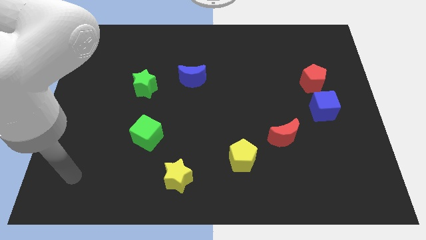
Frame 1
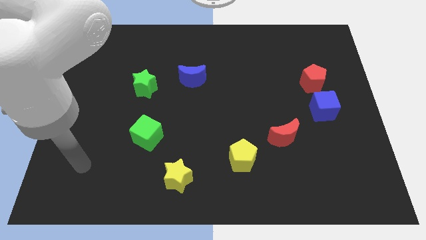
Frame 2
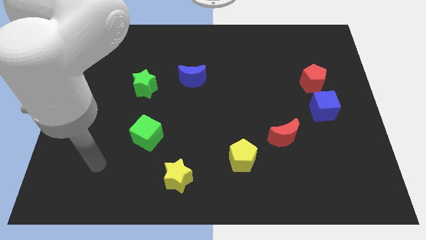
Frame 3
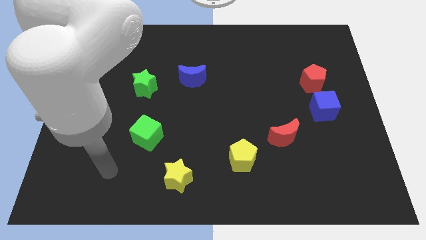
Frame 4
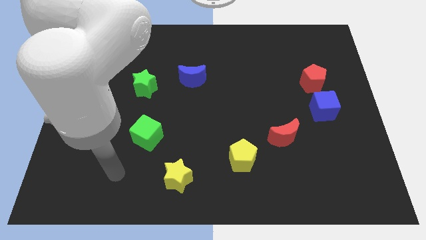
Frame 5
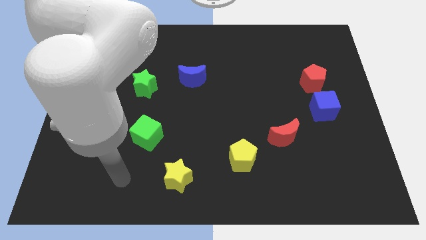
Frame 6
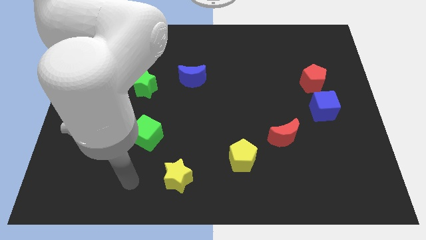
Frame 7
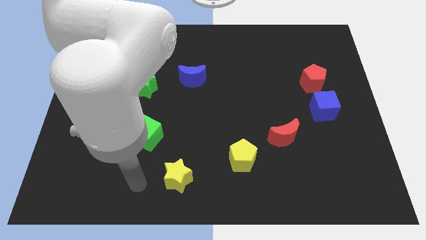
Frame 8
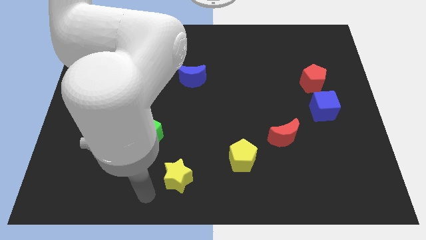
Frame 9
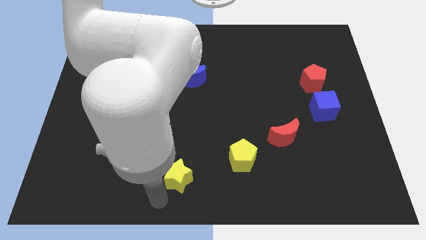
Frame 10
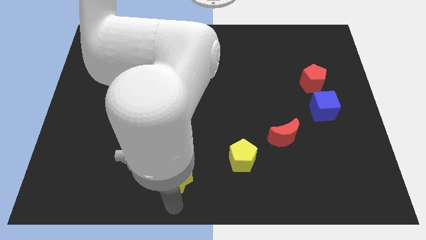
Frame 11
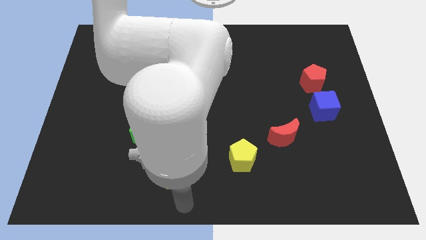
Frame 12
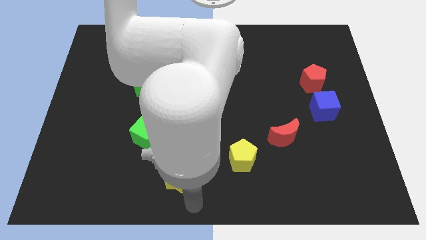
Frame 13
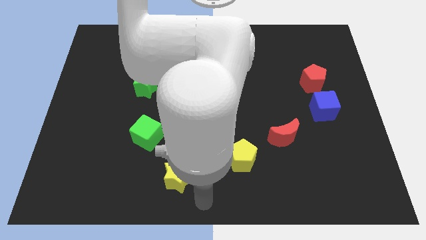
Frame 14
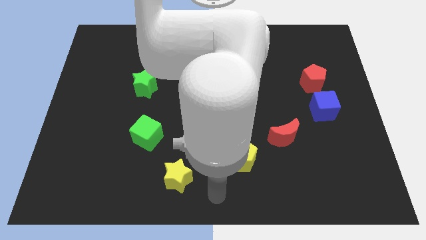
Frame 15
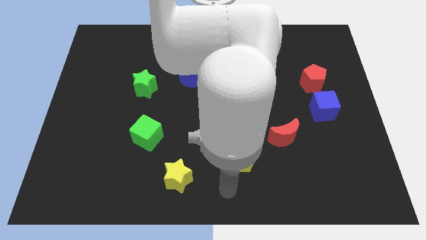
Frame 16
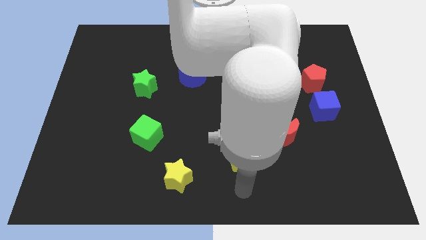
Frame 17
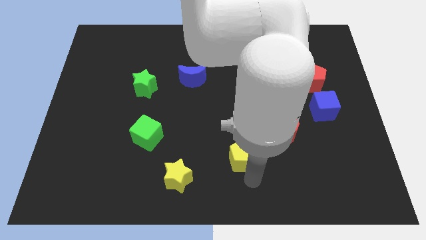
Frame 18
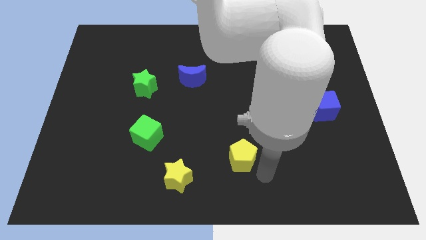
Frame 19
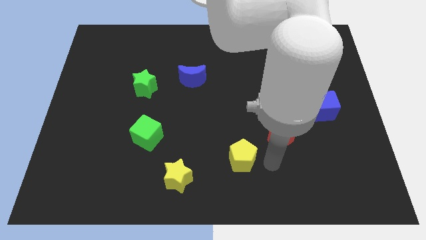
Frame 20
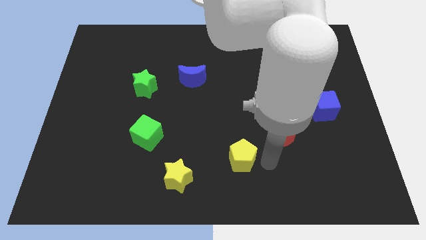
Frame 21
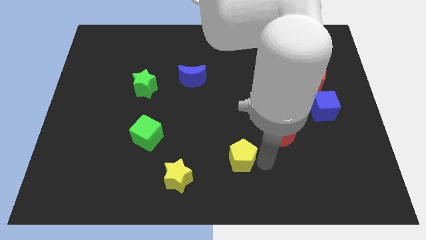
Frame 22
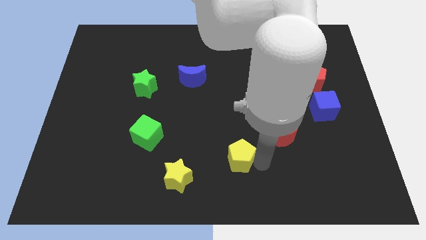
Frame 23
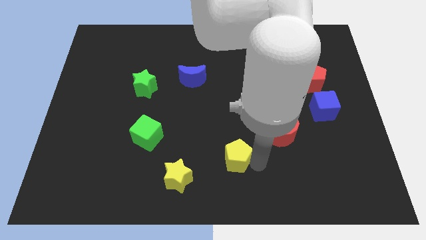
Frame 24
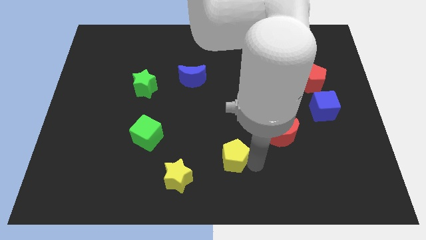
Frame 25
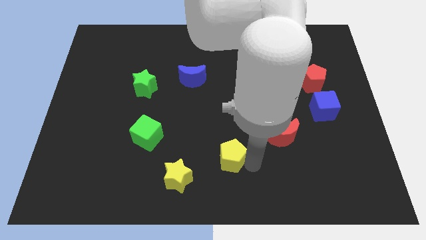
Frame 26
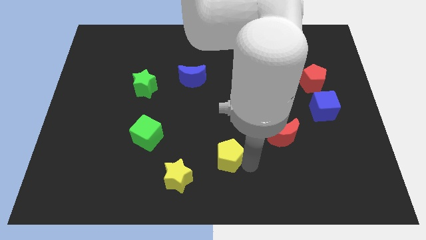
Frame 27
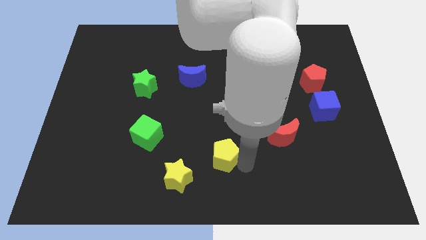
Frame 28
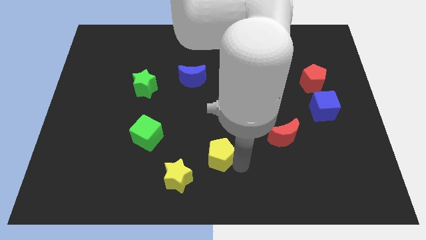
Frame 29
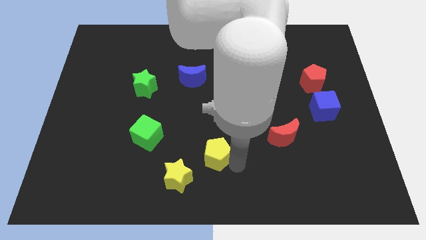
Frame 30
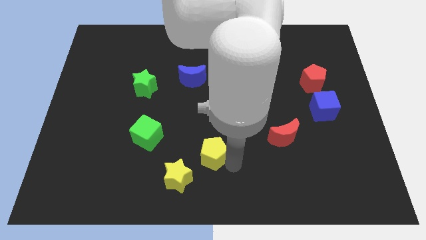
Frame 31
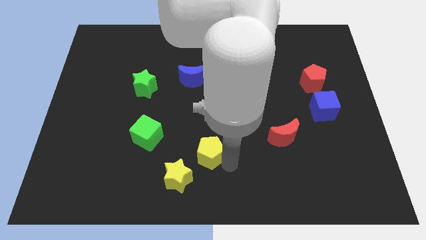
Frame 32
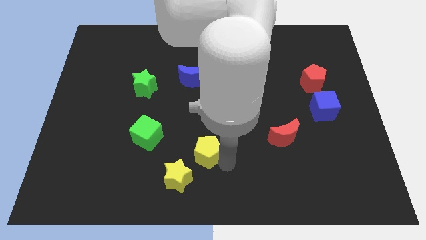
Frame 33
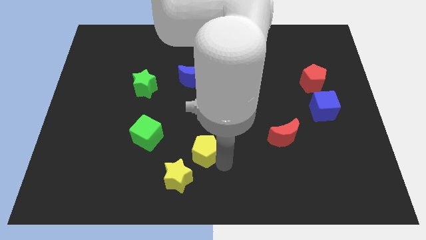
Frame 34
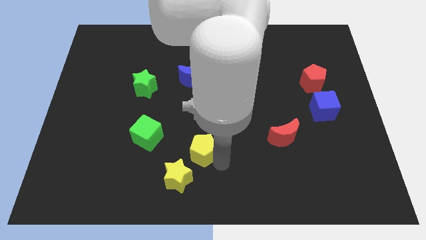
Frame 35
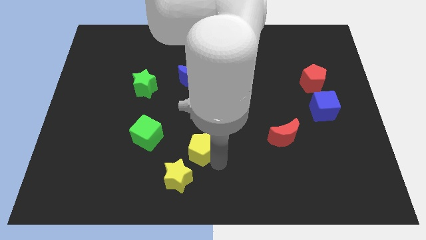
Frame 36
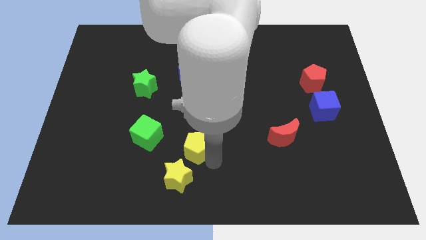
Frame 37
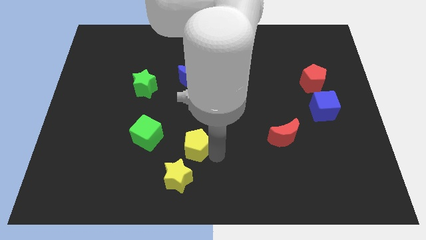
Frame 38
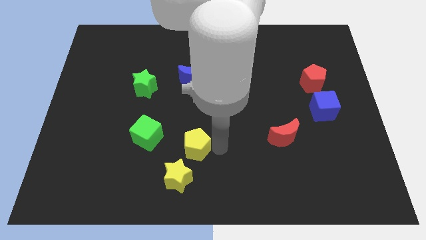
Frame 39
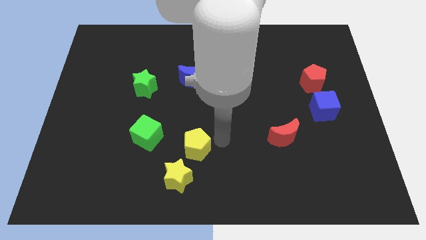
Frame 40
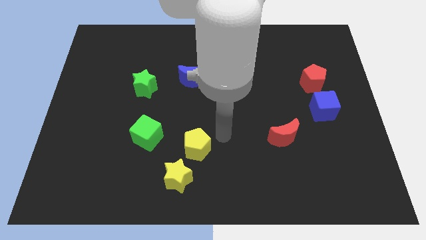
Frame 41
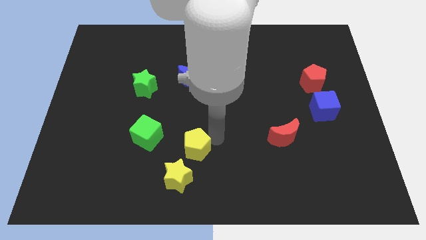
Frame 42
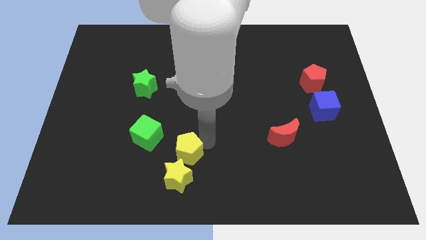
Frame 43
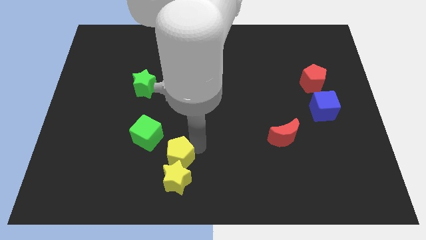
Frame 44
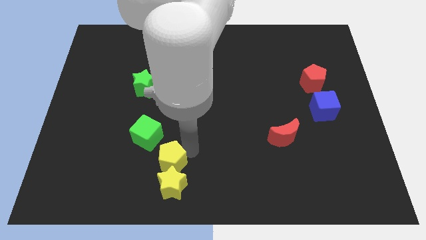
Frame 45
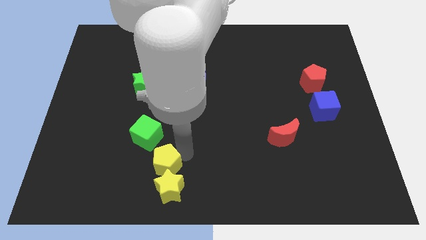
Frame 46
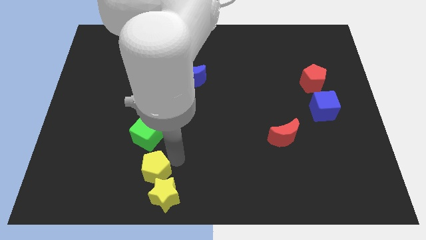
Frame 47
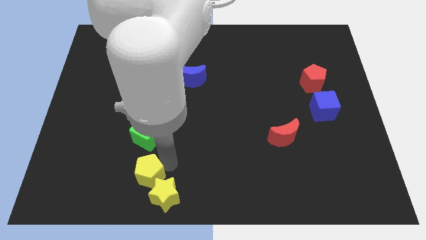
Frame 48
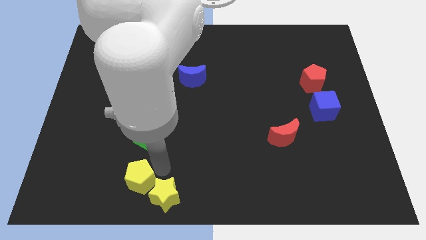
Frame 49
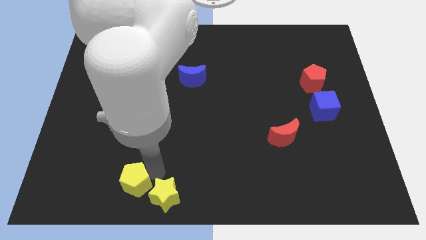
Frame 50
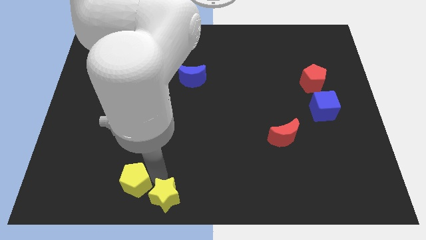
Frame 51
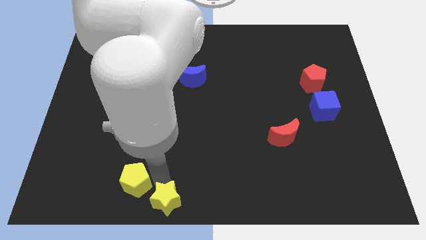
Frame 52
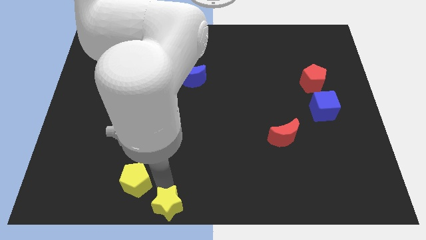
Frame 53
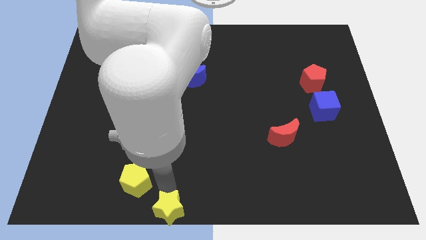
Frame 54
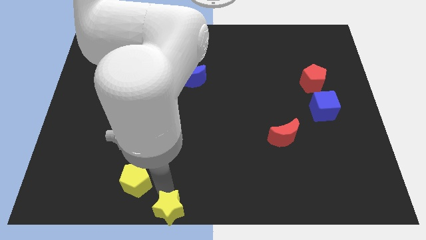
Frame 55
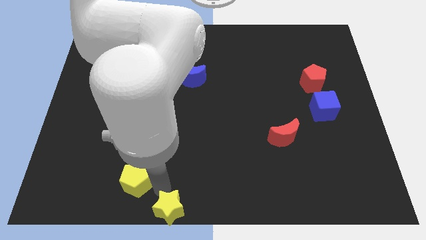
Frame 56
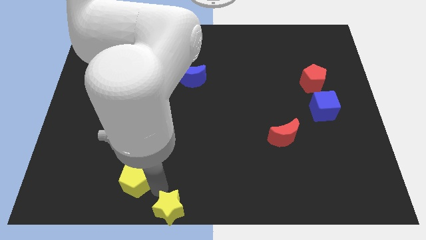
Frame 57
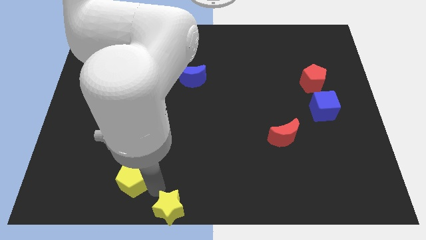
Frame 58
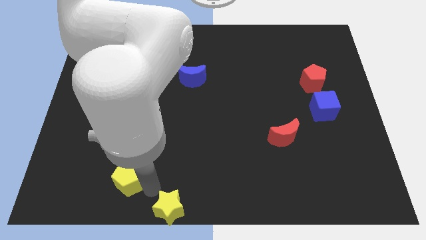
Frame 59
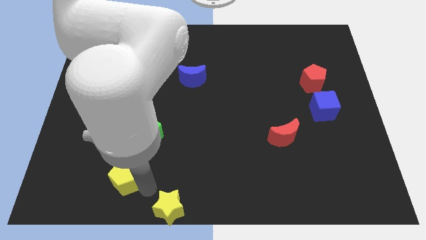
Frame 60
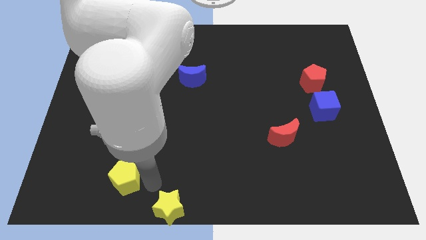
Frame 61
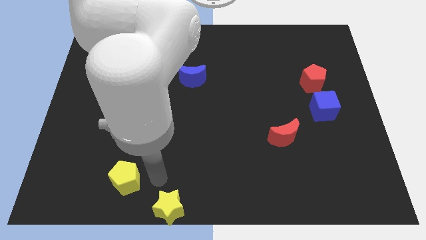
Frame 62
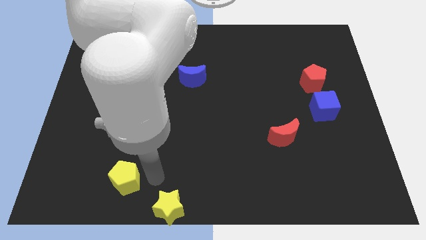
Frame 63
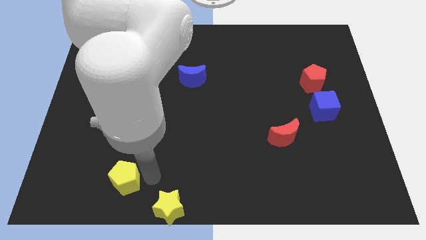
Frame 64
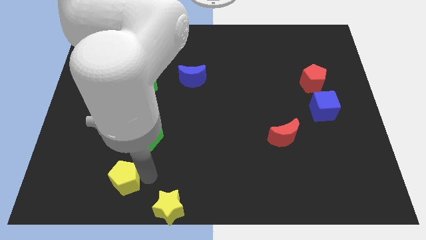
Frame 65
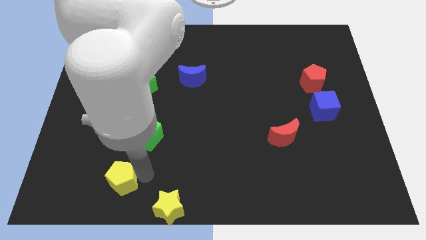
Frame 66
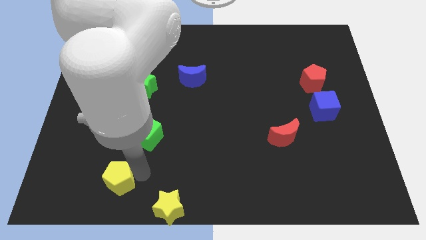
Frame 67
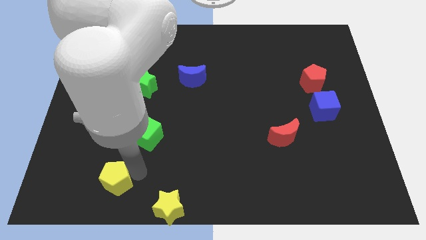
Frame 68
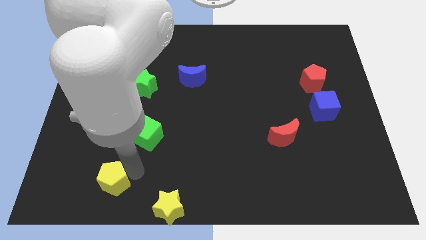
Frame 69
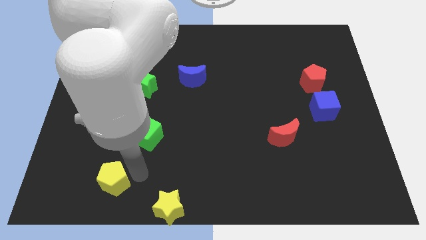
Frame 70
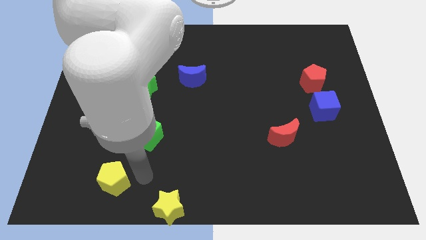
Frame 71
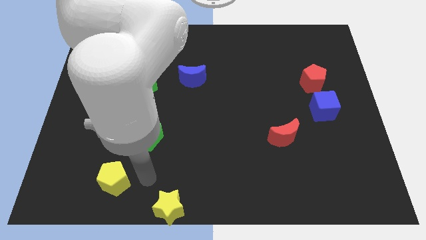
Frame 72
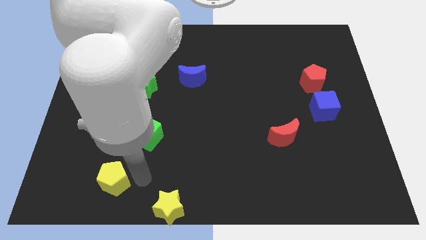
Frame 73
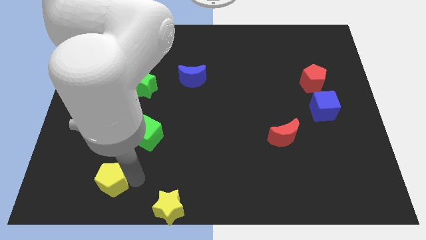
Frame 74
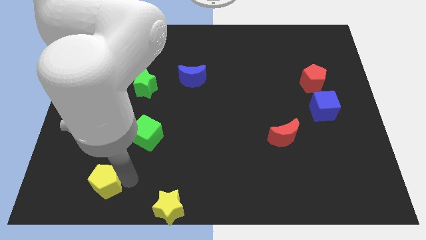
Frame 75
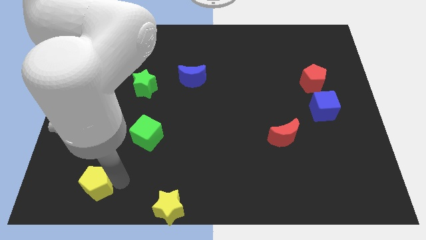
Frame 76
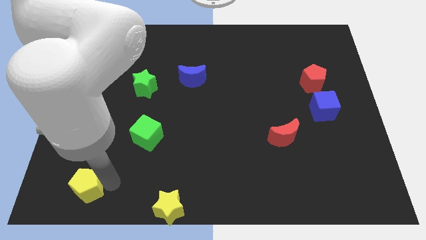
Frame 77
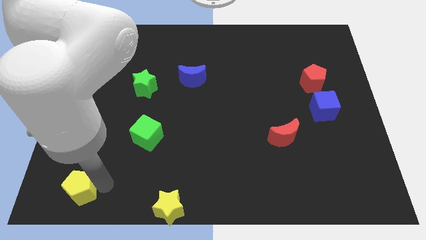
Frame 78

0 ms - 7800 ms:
put the yellow pentagon to the bottom left
